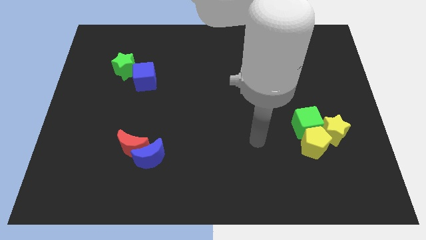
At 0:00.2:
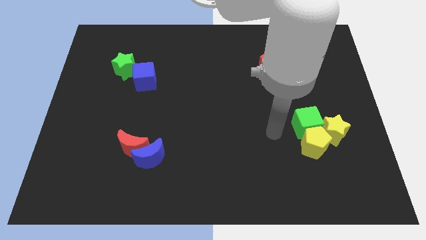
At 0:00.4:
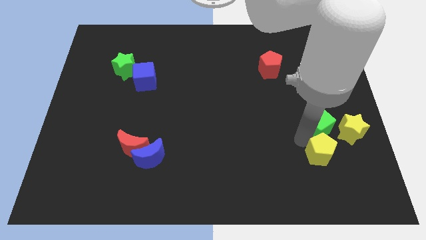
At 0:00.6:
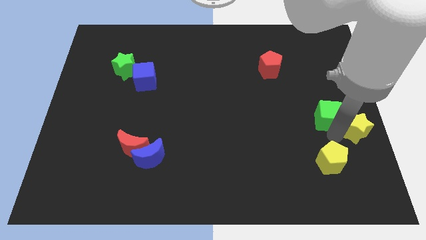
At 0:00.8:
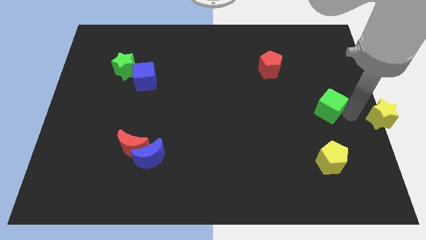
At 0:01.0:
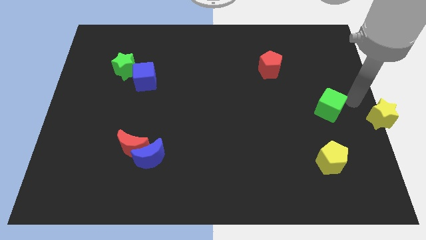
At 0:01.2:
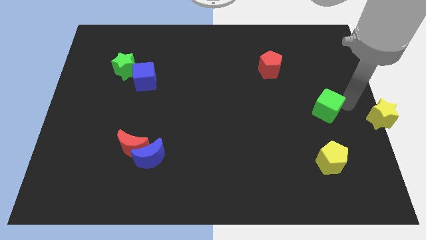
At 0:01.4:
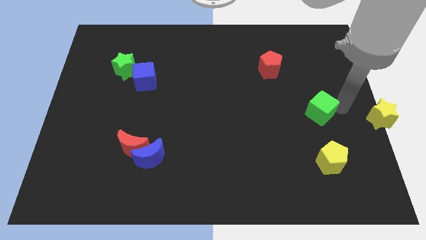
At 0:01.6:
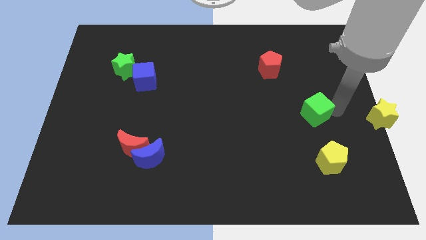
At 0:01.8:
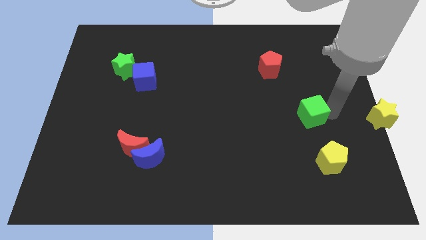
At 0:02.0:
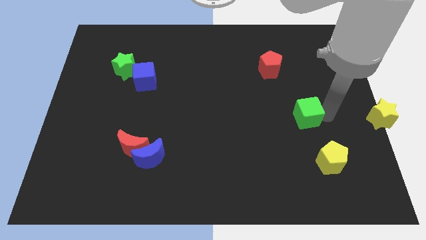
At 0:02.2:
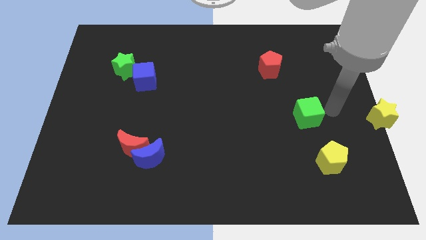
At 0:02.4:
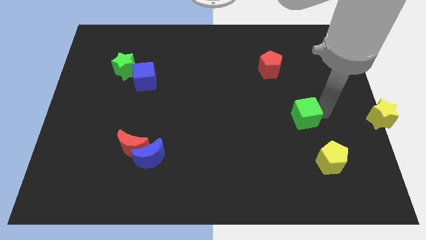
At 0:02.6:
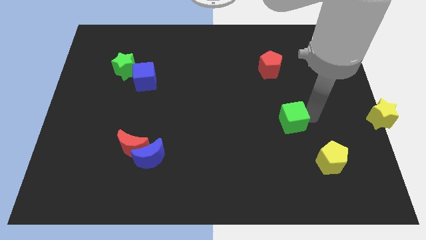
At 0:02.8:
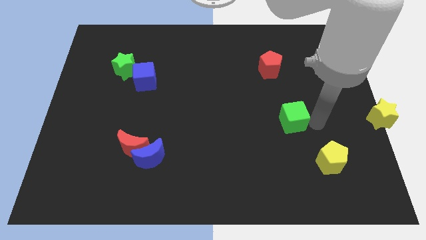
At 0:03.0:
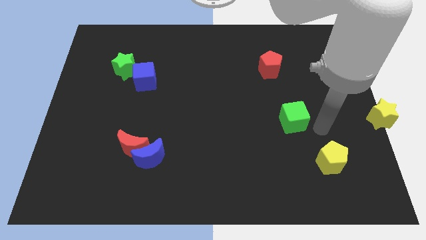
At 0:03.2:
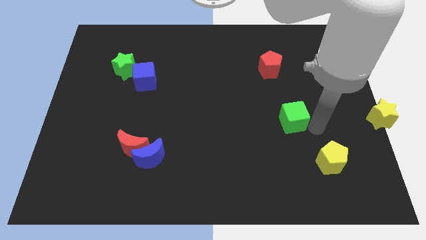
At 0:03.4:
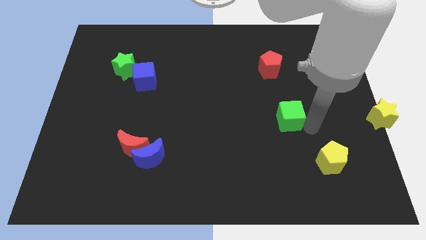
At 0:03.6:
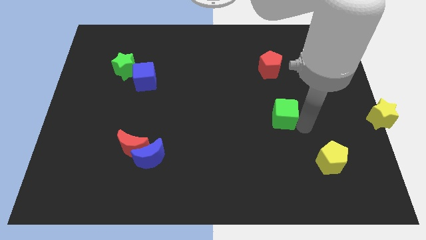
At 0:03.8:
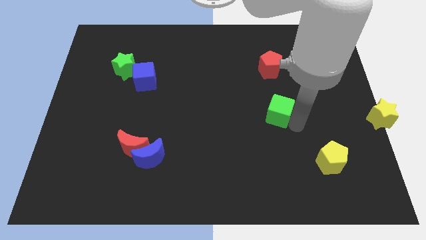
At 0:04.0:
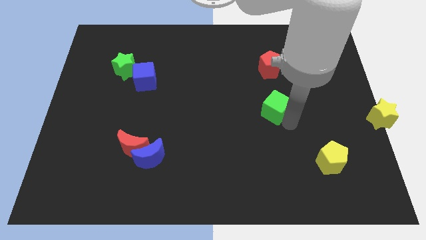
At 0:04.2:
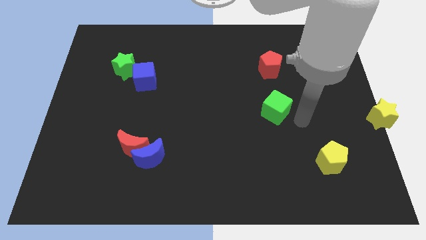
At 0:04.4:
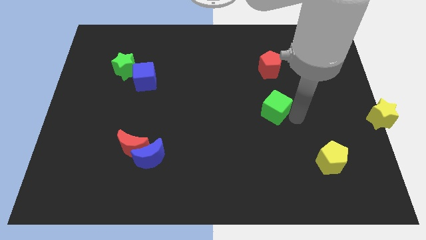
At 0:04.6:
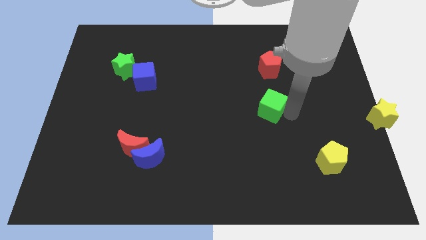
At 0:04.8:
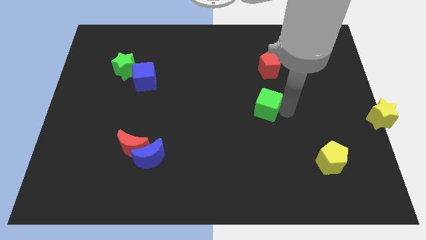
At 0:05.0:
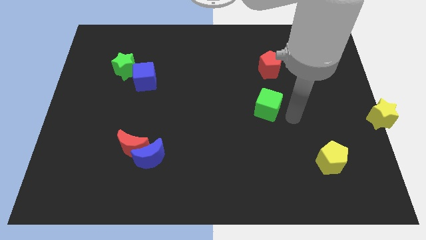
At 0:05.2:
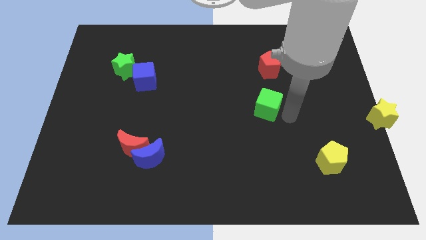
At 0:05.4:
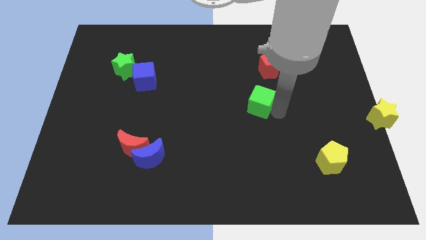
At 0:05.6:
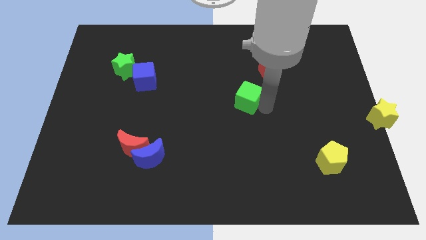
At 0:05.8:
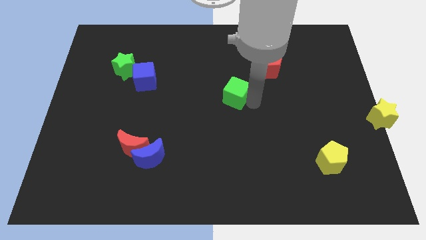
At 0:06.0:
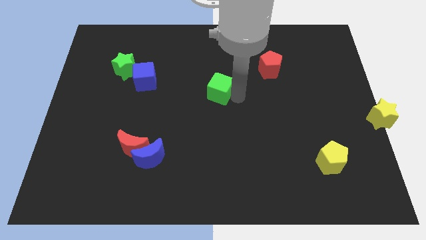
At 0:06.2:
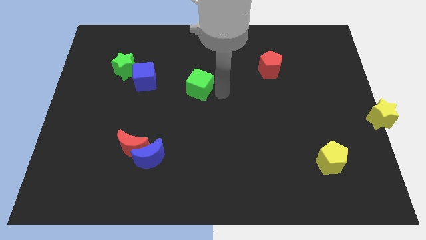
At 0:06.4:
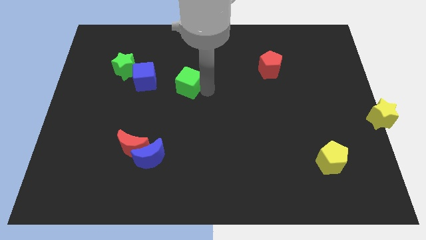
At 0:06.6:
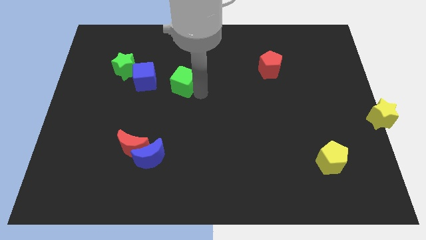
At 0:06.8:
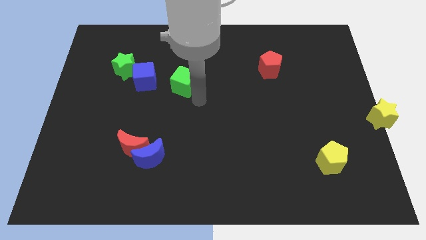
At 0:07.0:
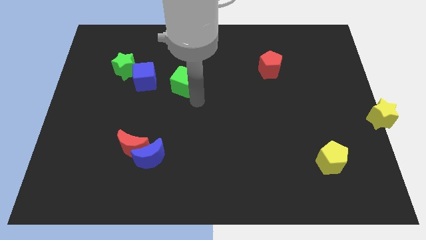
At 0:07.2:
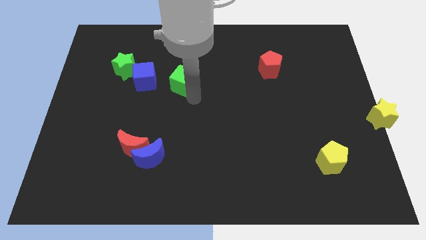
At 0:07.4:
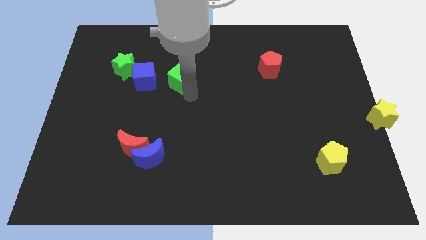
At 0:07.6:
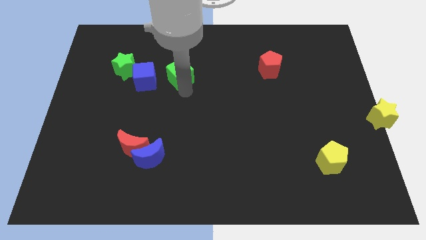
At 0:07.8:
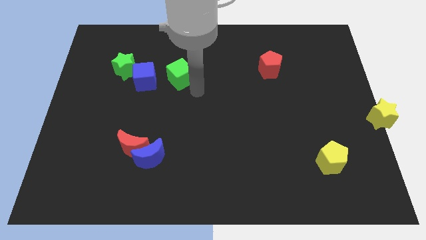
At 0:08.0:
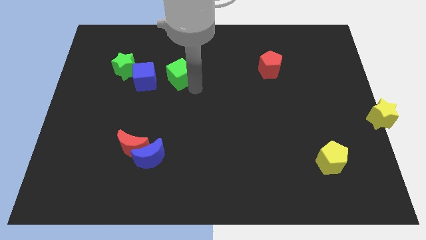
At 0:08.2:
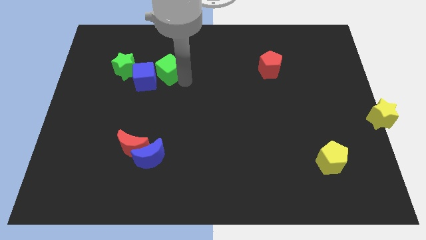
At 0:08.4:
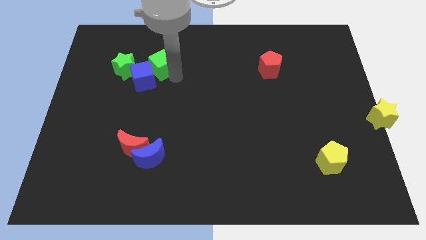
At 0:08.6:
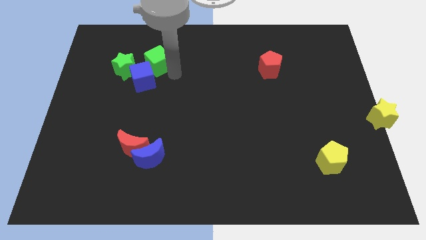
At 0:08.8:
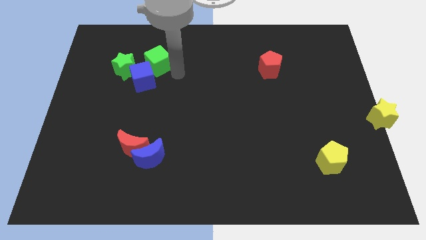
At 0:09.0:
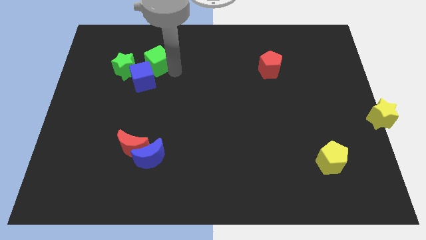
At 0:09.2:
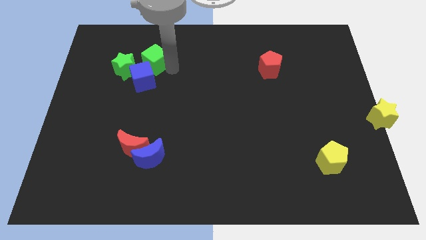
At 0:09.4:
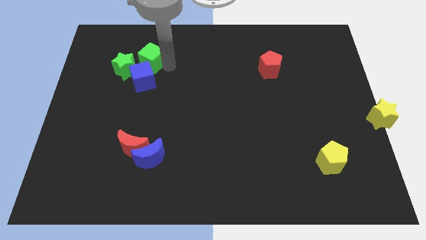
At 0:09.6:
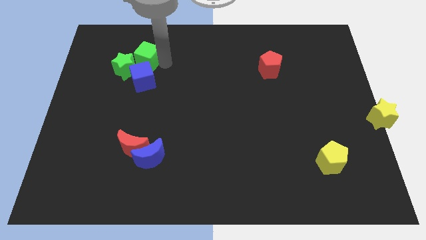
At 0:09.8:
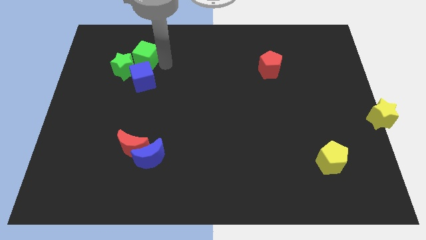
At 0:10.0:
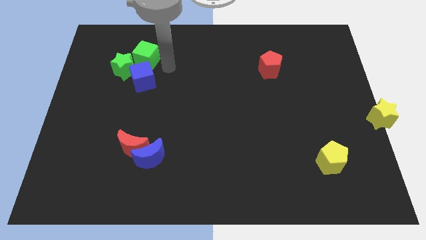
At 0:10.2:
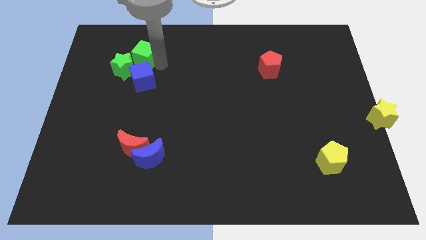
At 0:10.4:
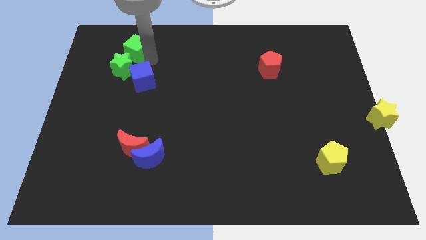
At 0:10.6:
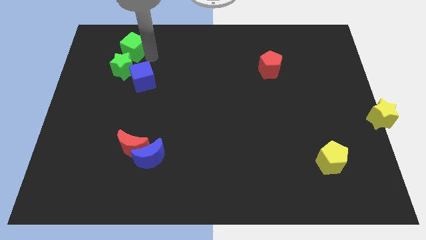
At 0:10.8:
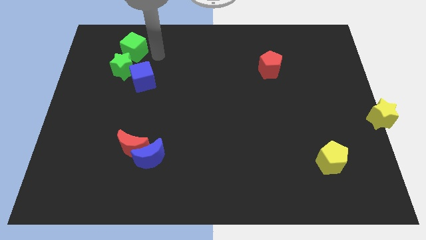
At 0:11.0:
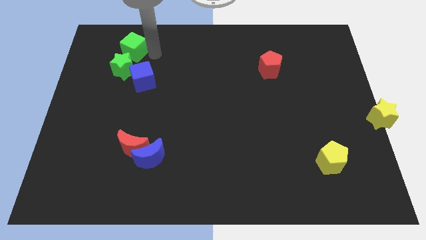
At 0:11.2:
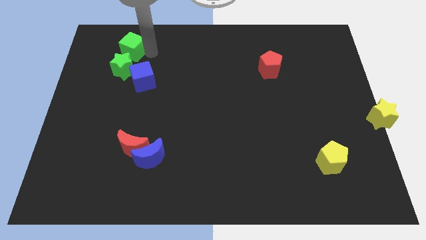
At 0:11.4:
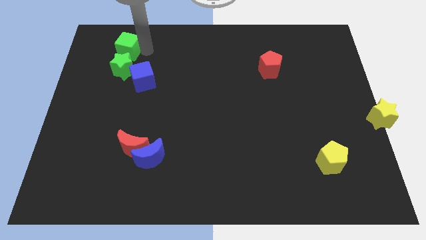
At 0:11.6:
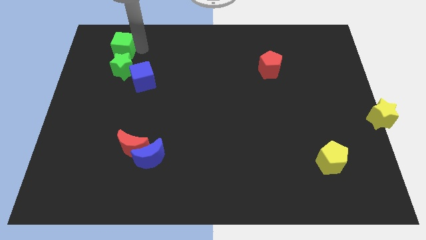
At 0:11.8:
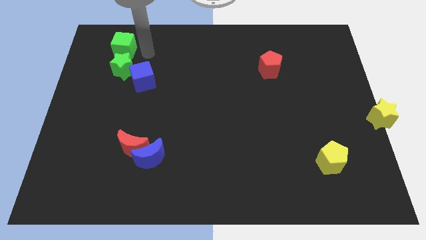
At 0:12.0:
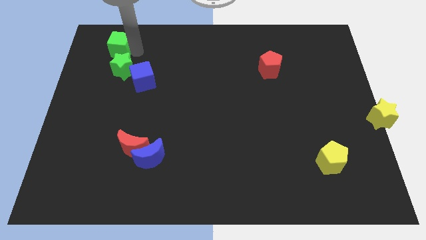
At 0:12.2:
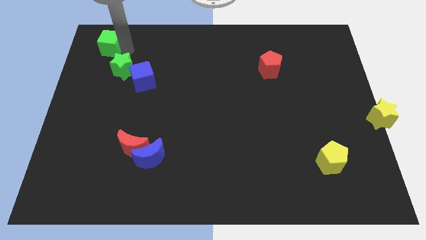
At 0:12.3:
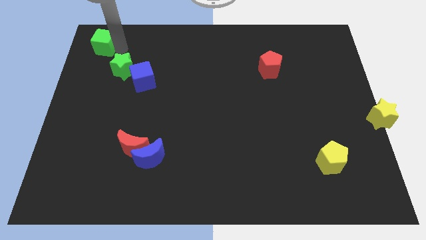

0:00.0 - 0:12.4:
move the green cube to the top left of the board
